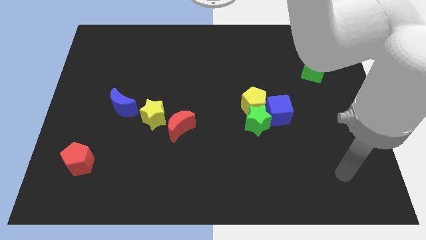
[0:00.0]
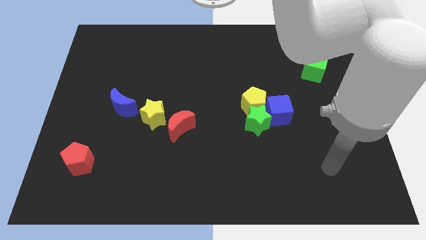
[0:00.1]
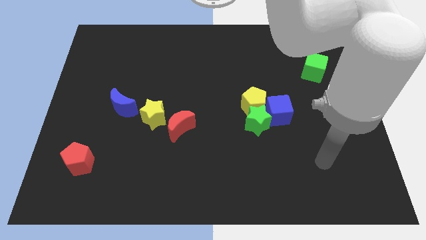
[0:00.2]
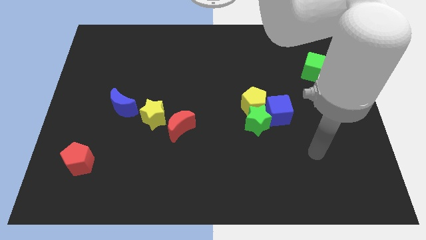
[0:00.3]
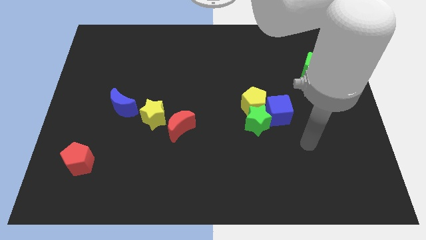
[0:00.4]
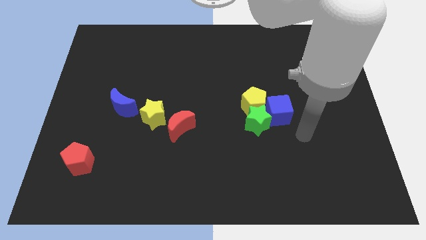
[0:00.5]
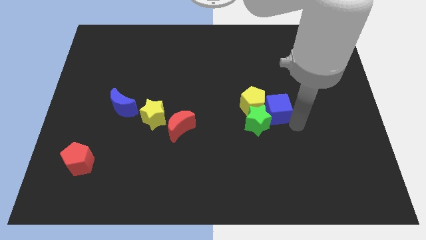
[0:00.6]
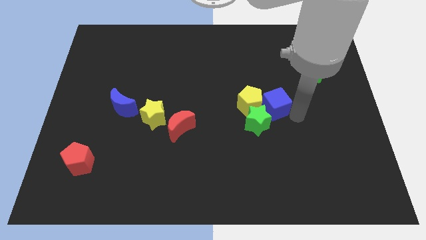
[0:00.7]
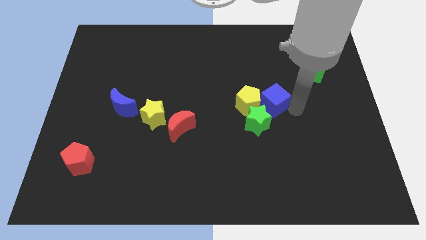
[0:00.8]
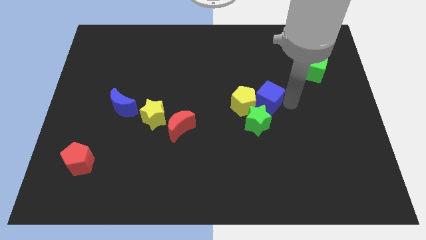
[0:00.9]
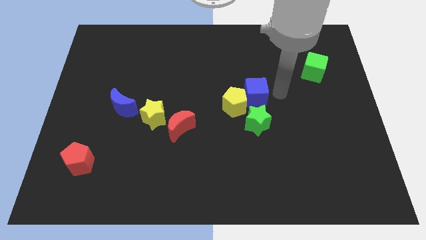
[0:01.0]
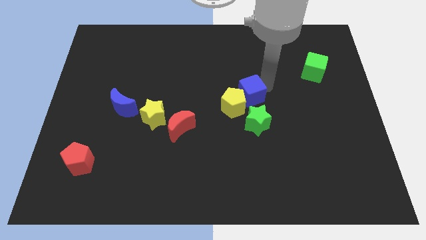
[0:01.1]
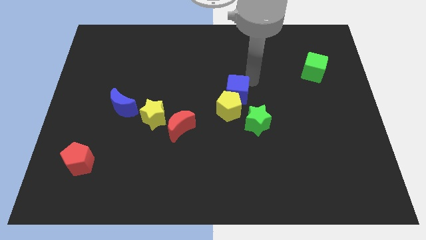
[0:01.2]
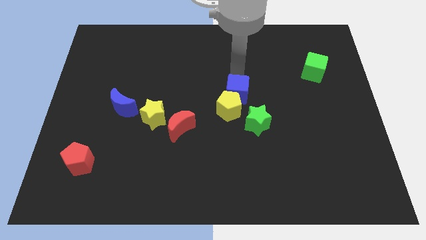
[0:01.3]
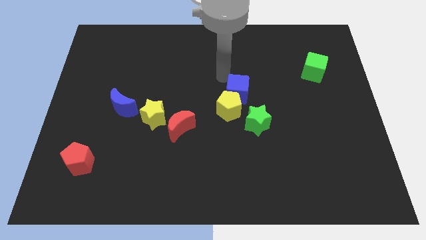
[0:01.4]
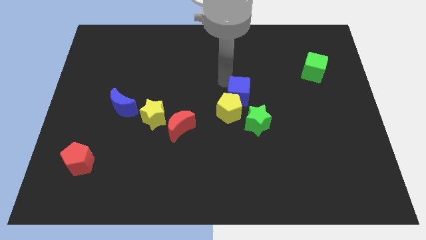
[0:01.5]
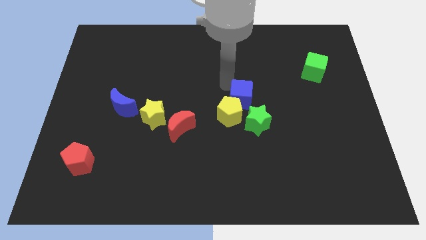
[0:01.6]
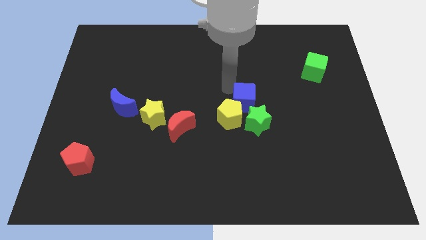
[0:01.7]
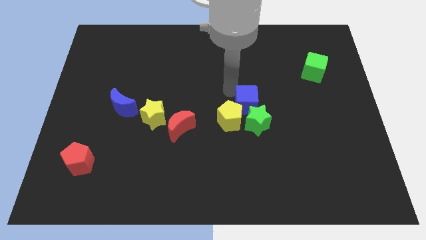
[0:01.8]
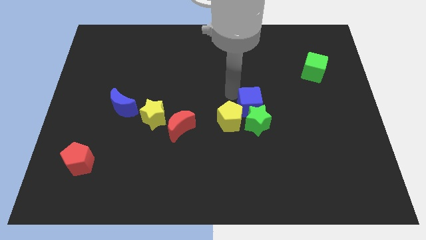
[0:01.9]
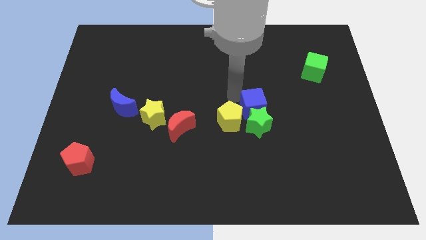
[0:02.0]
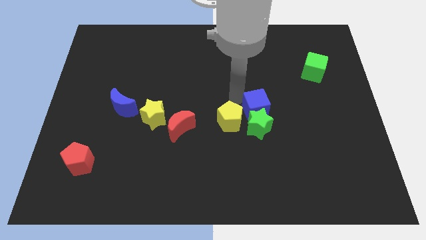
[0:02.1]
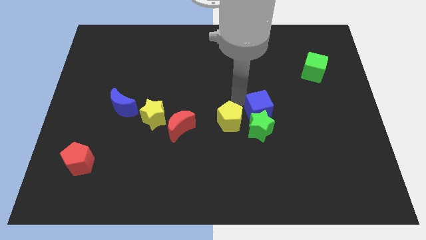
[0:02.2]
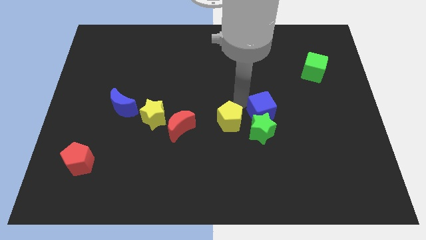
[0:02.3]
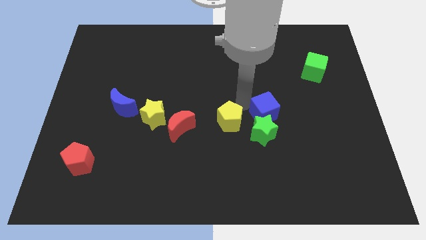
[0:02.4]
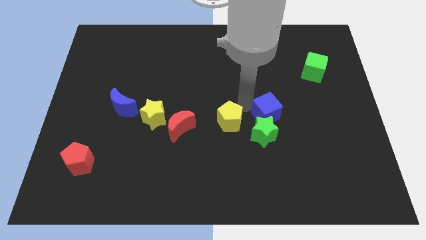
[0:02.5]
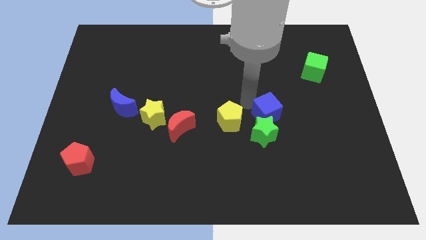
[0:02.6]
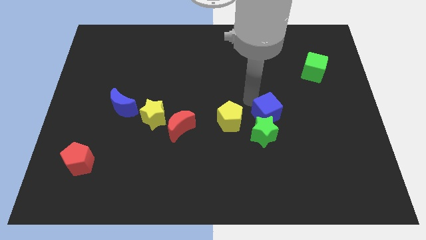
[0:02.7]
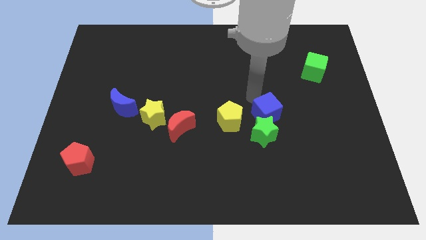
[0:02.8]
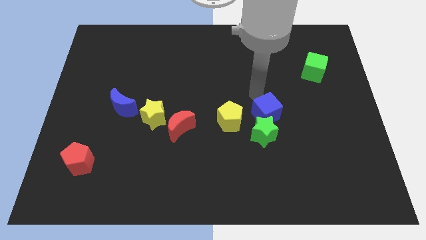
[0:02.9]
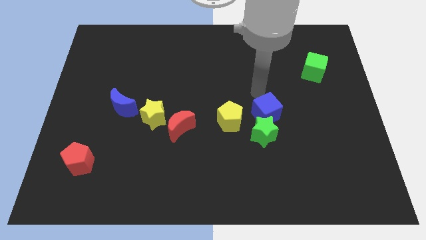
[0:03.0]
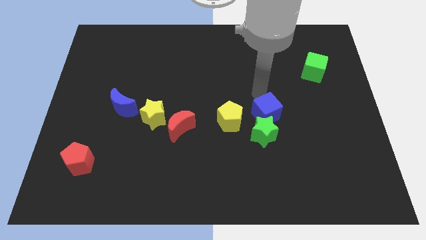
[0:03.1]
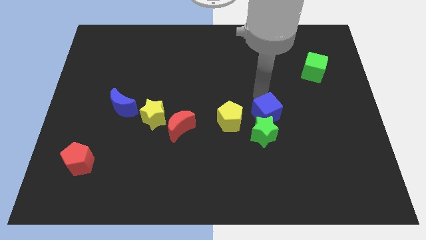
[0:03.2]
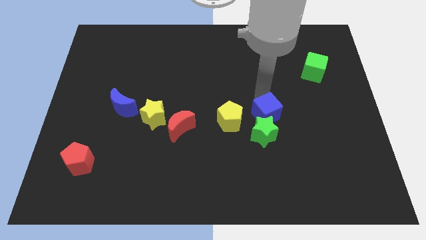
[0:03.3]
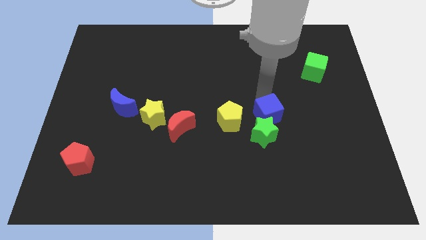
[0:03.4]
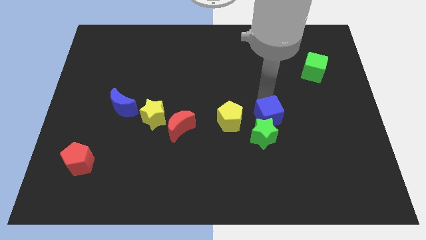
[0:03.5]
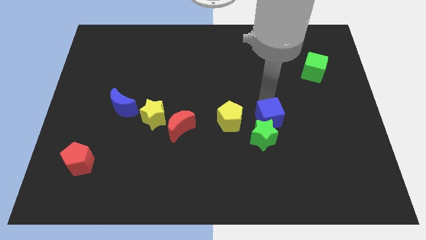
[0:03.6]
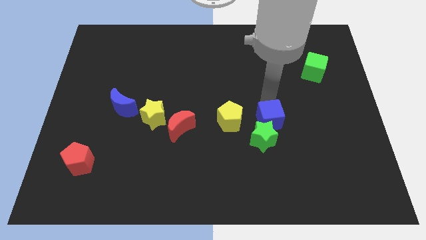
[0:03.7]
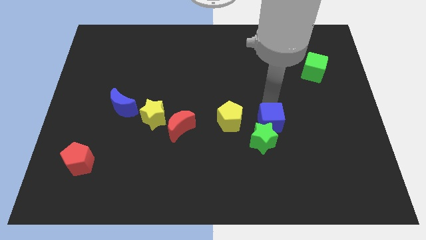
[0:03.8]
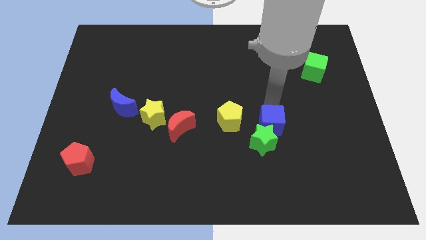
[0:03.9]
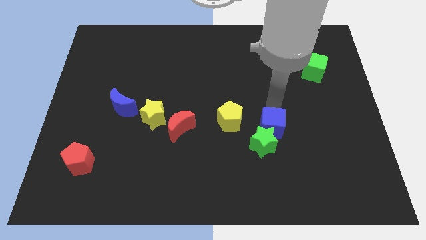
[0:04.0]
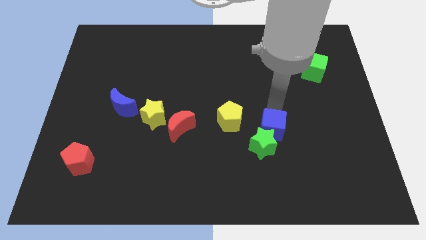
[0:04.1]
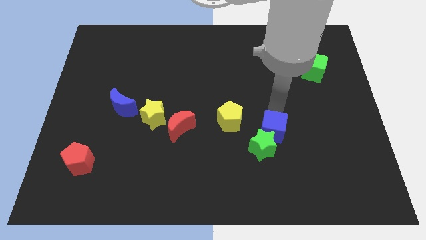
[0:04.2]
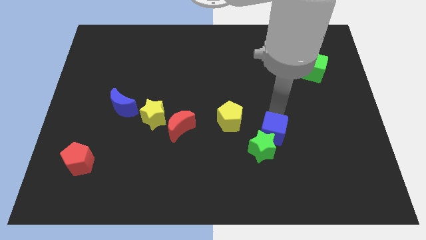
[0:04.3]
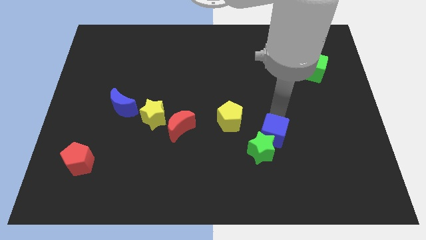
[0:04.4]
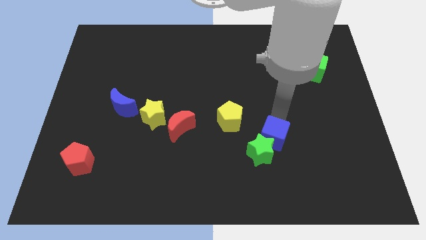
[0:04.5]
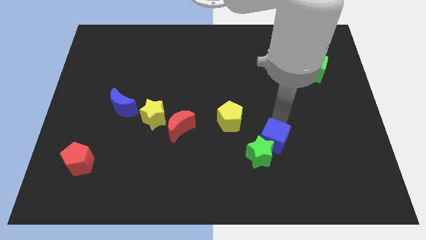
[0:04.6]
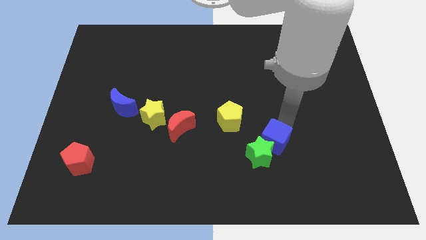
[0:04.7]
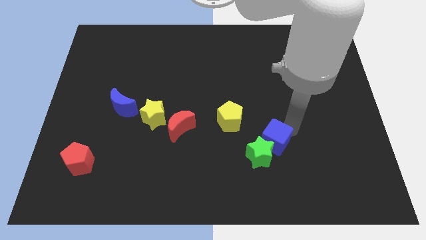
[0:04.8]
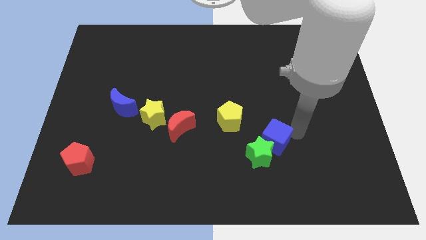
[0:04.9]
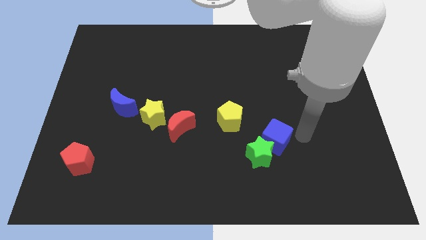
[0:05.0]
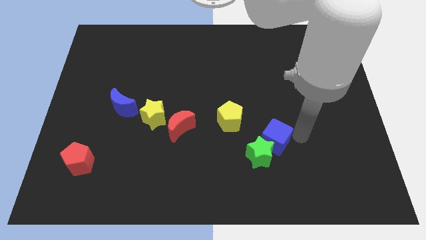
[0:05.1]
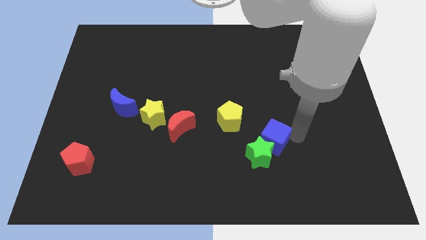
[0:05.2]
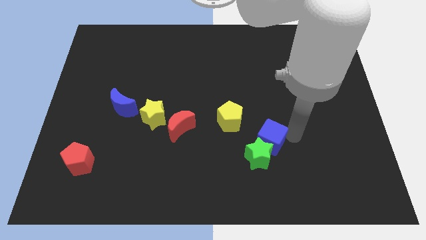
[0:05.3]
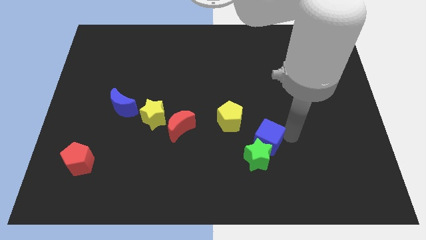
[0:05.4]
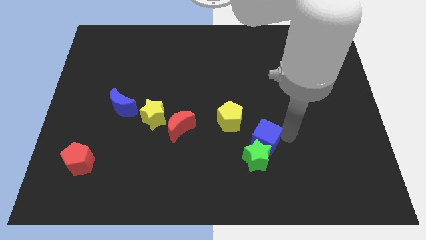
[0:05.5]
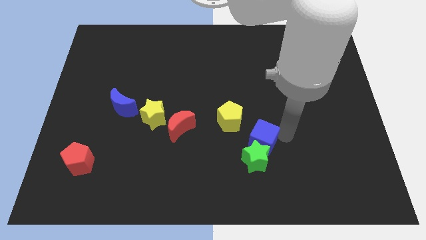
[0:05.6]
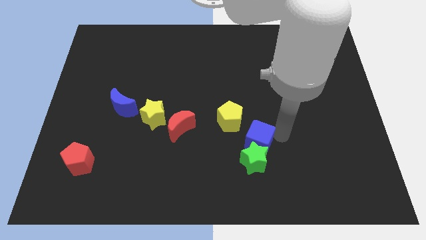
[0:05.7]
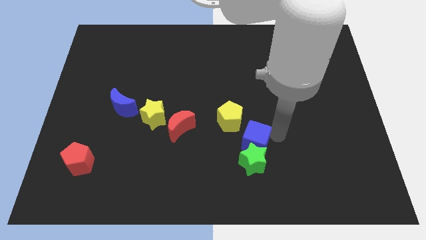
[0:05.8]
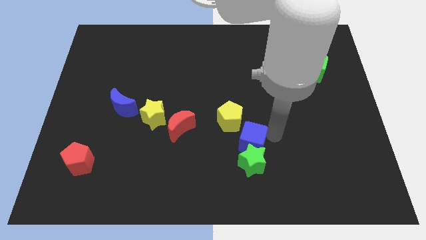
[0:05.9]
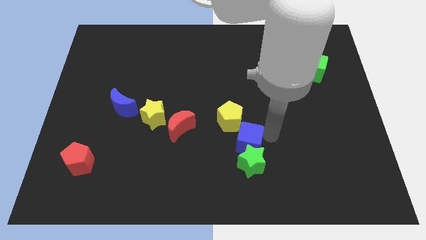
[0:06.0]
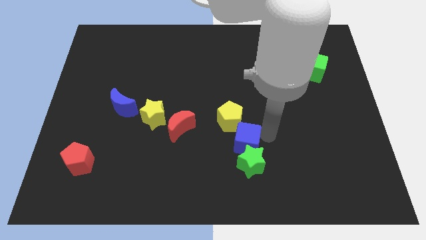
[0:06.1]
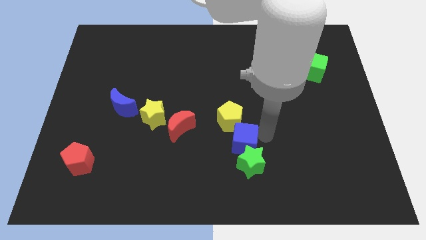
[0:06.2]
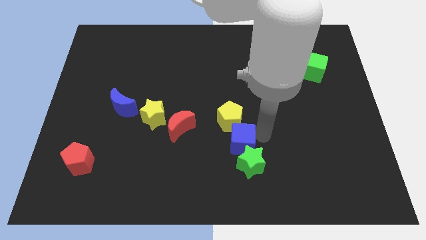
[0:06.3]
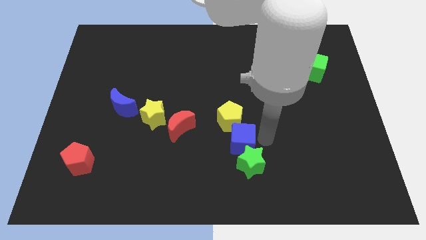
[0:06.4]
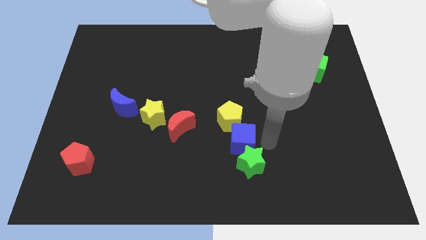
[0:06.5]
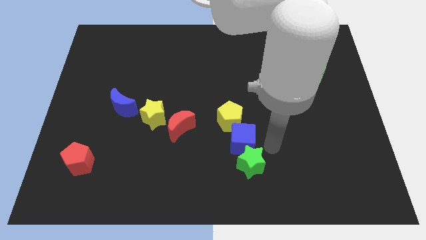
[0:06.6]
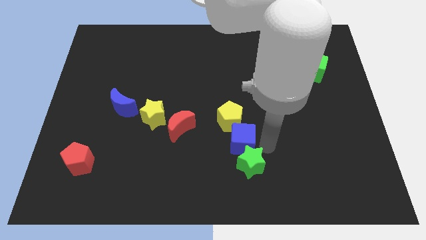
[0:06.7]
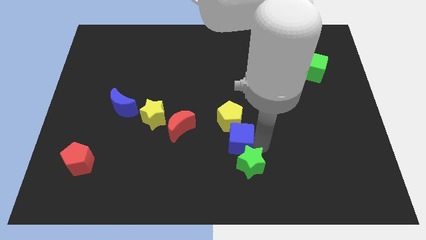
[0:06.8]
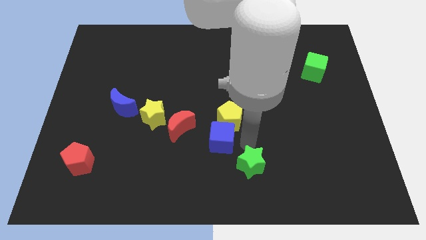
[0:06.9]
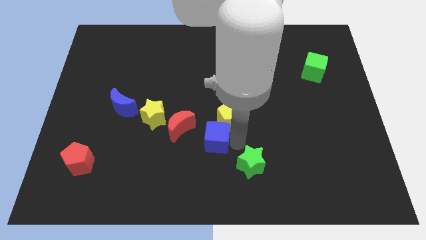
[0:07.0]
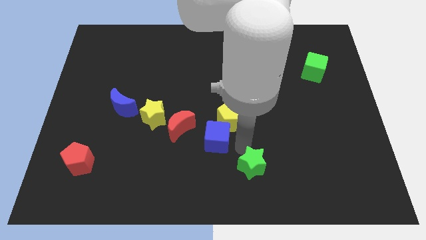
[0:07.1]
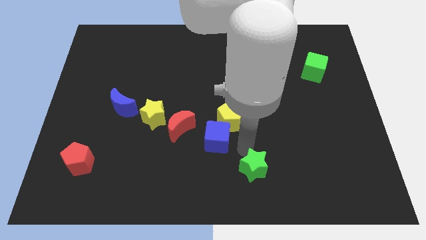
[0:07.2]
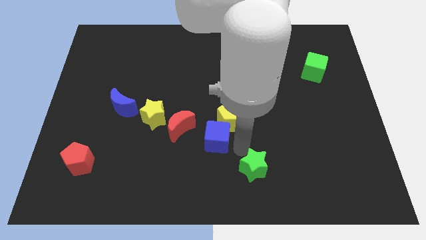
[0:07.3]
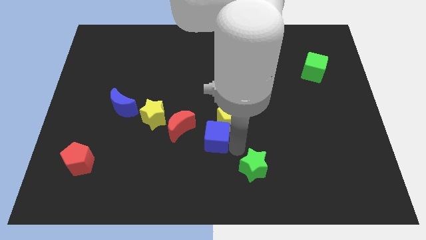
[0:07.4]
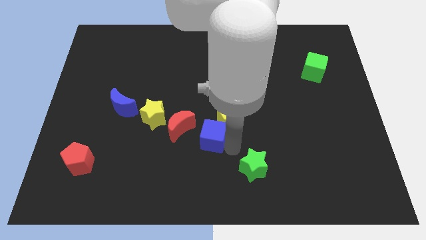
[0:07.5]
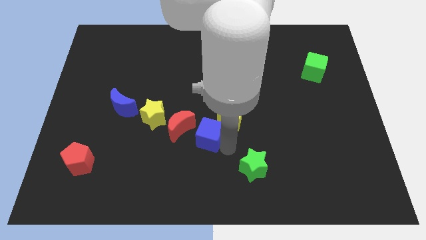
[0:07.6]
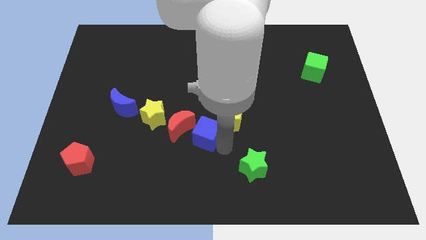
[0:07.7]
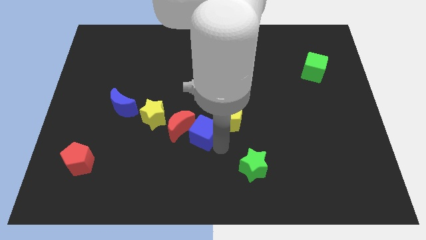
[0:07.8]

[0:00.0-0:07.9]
put the blue cube next to the red moon
